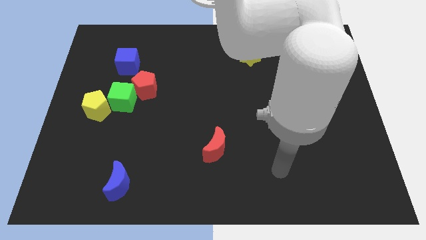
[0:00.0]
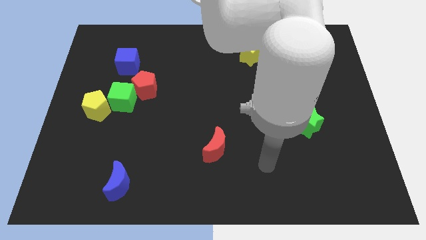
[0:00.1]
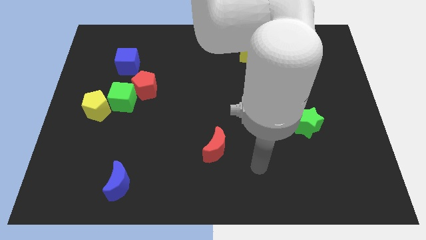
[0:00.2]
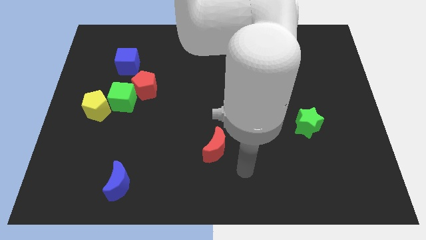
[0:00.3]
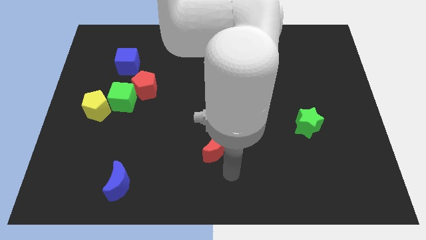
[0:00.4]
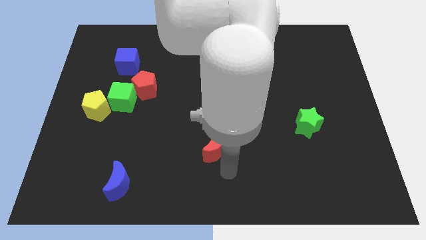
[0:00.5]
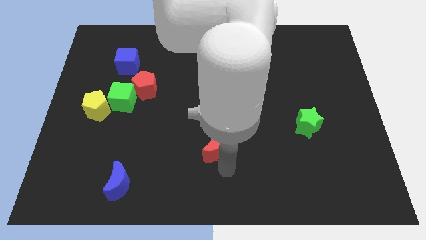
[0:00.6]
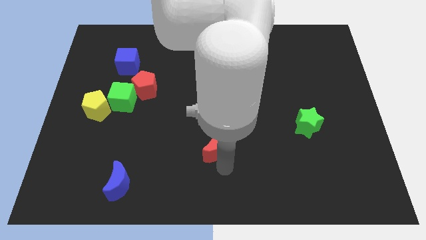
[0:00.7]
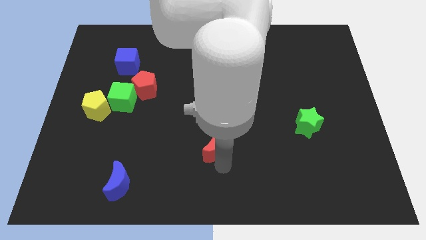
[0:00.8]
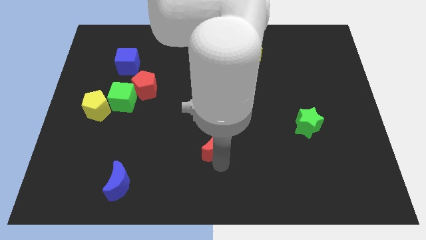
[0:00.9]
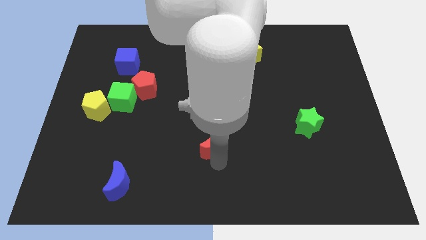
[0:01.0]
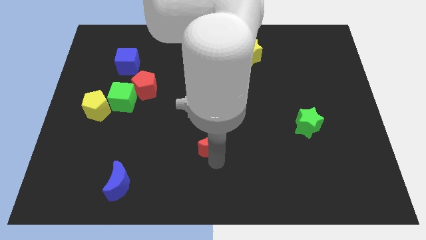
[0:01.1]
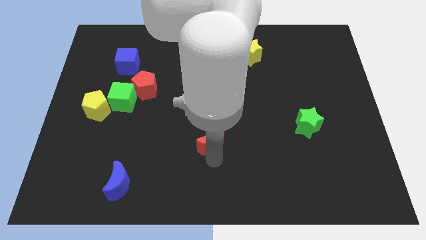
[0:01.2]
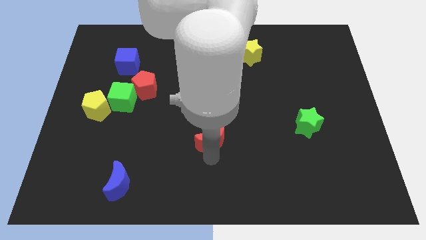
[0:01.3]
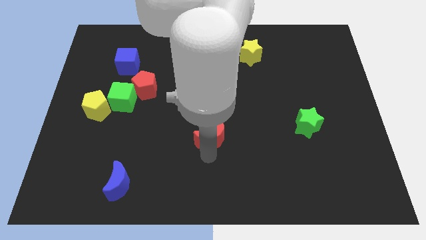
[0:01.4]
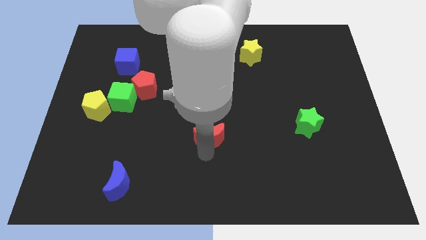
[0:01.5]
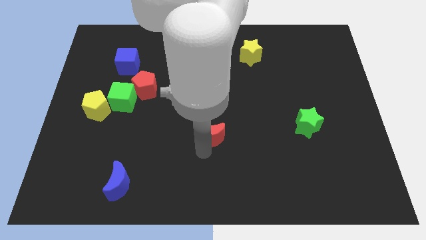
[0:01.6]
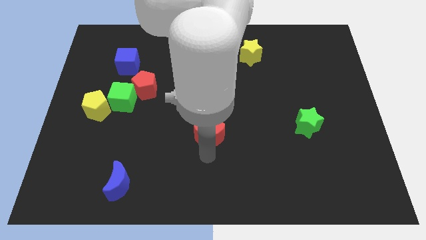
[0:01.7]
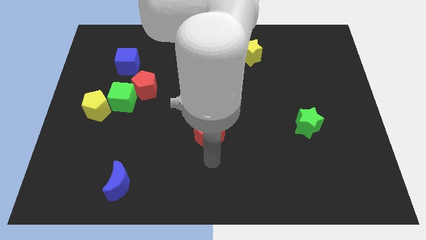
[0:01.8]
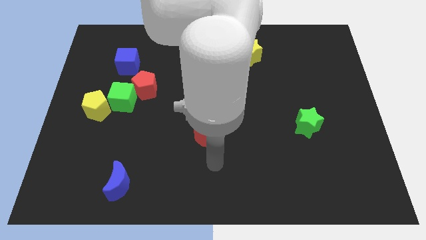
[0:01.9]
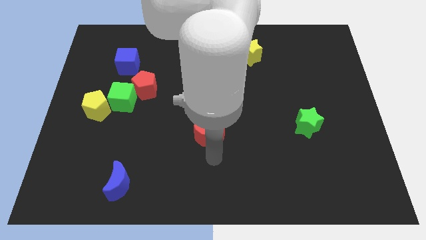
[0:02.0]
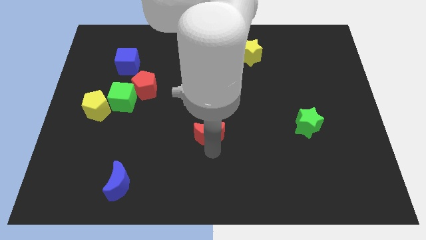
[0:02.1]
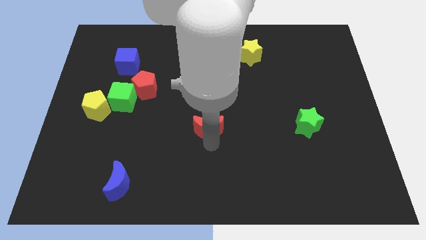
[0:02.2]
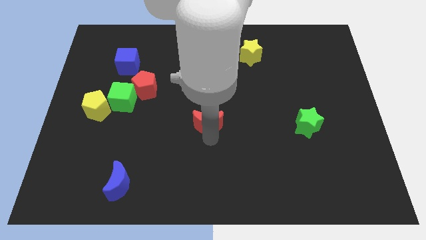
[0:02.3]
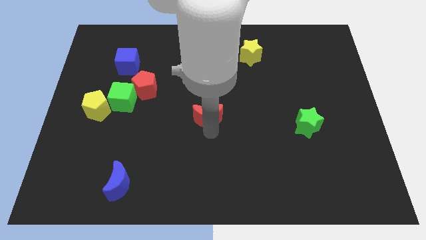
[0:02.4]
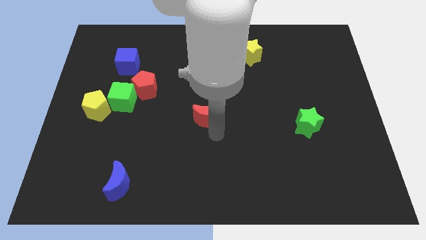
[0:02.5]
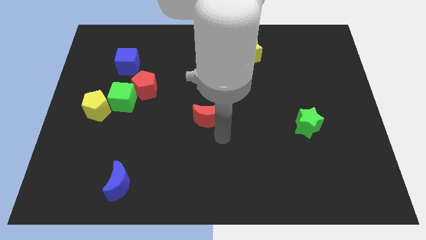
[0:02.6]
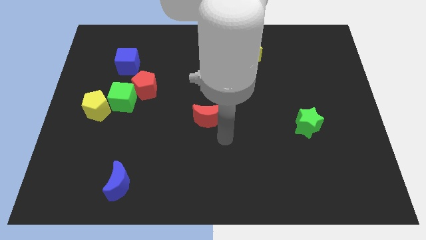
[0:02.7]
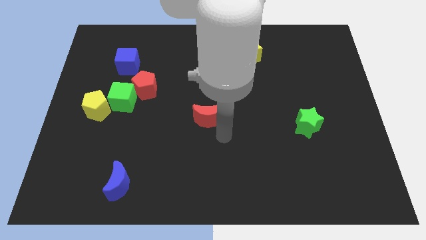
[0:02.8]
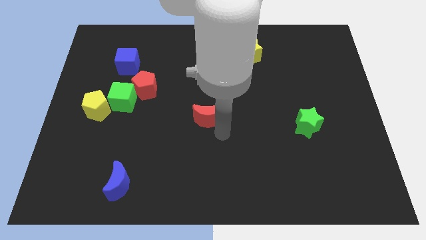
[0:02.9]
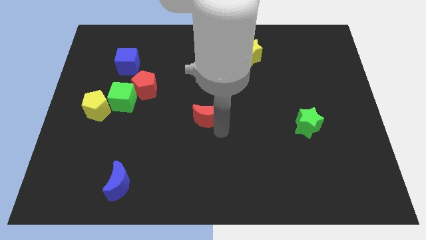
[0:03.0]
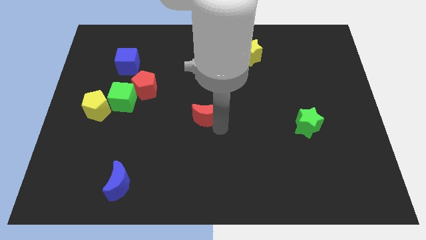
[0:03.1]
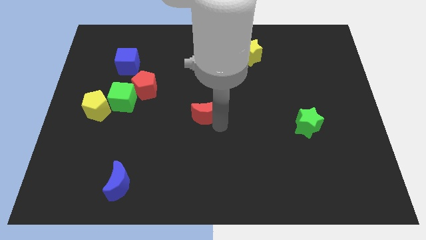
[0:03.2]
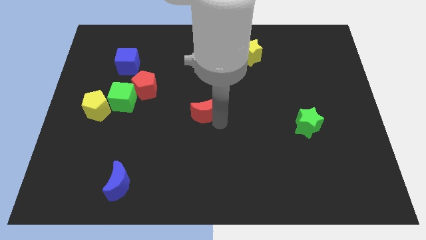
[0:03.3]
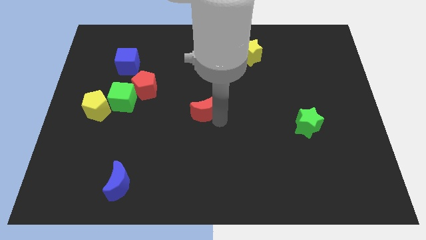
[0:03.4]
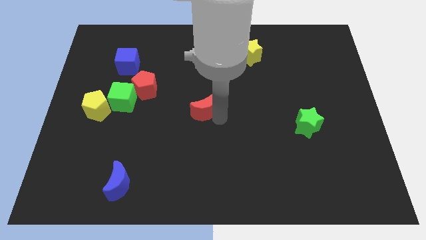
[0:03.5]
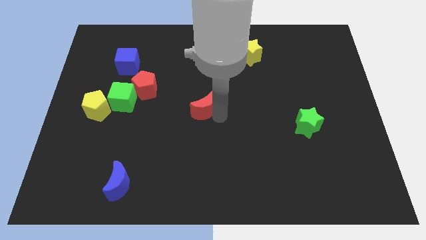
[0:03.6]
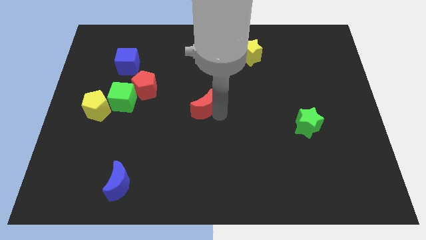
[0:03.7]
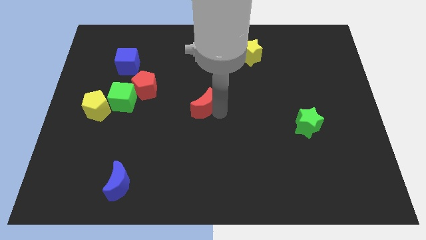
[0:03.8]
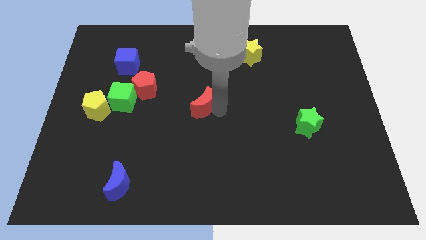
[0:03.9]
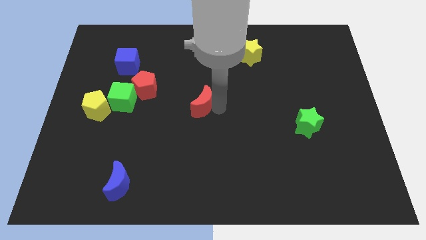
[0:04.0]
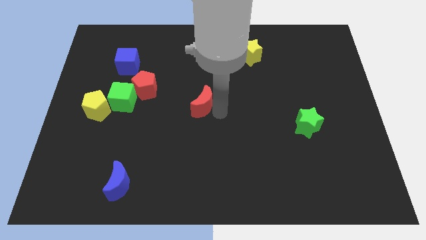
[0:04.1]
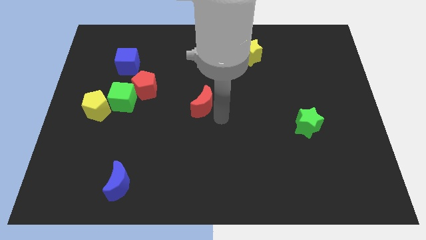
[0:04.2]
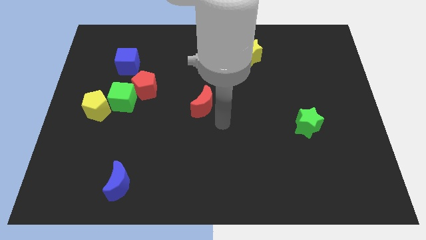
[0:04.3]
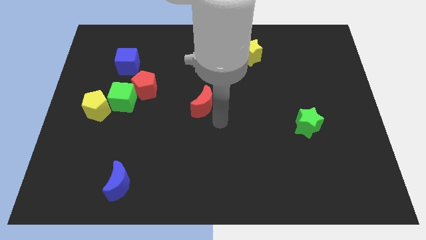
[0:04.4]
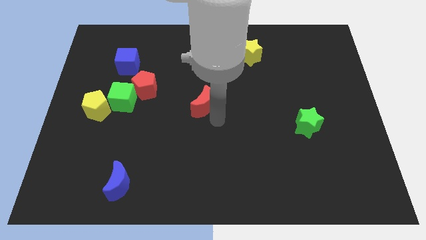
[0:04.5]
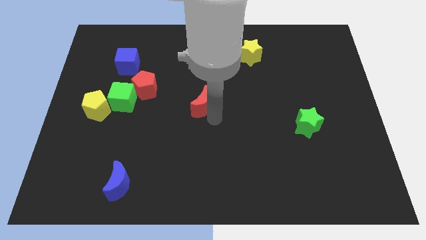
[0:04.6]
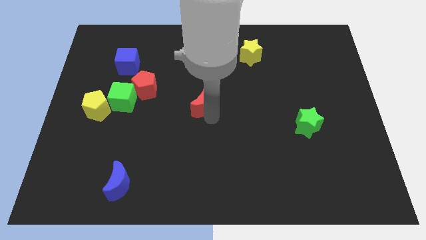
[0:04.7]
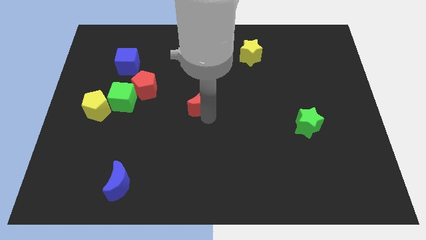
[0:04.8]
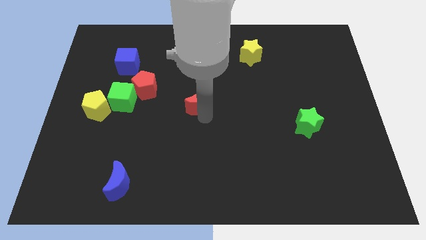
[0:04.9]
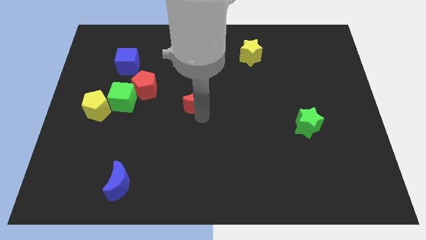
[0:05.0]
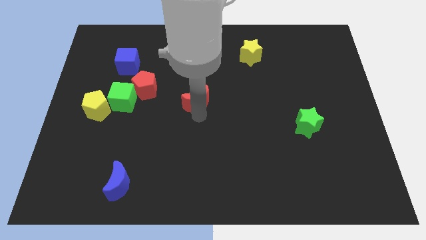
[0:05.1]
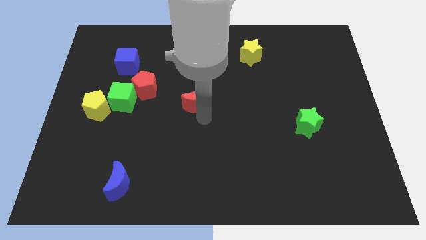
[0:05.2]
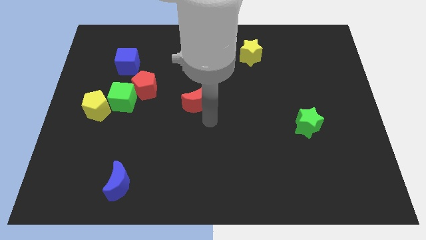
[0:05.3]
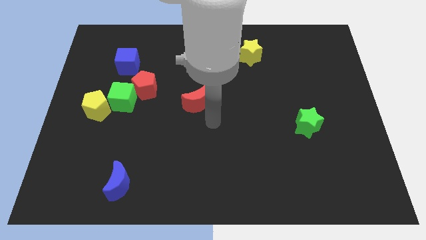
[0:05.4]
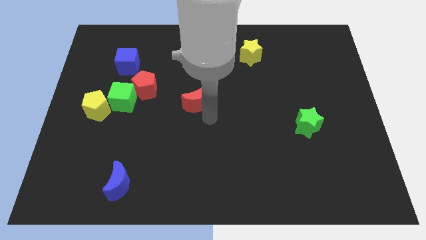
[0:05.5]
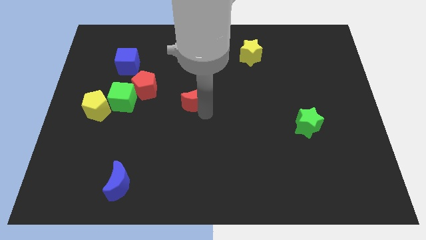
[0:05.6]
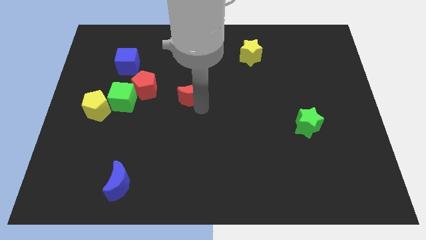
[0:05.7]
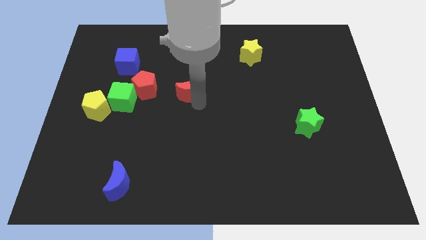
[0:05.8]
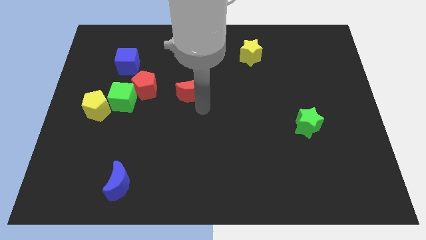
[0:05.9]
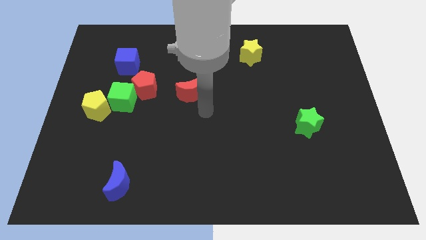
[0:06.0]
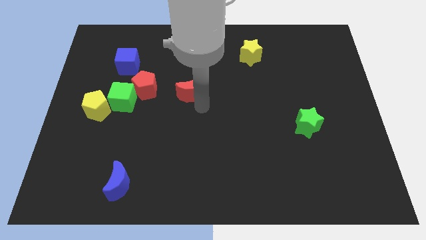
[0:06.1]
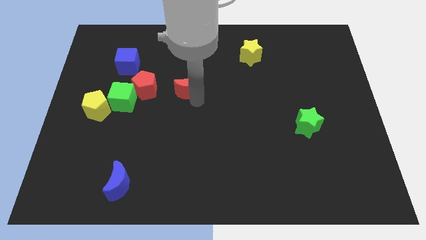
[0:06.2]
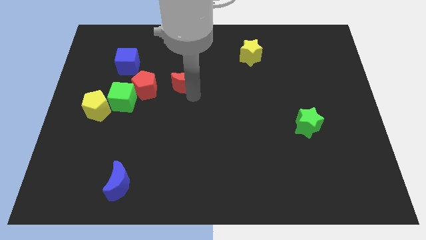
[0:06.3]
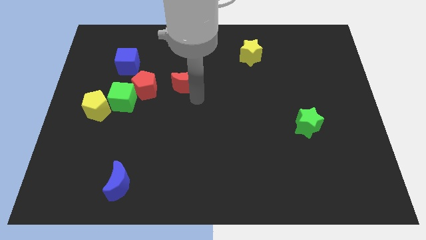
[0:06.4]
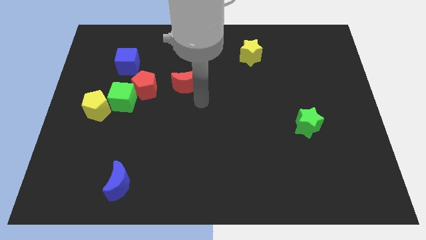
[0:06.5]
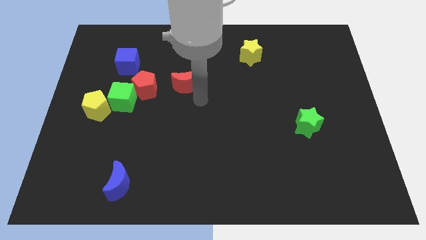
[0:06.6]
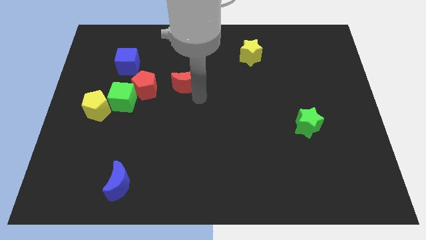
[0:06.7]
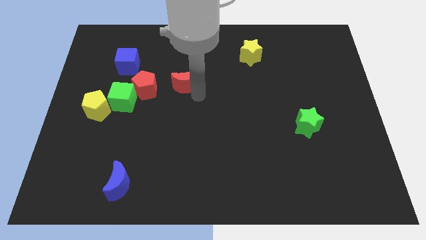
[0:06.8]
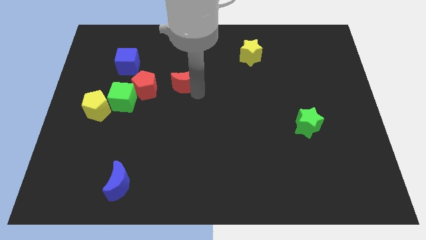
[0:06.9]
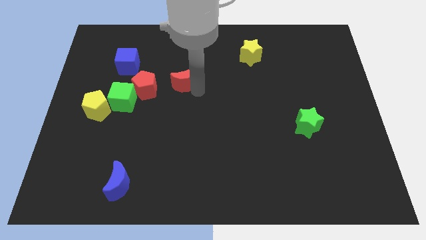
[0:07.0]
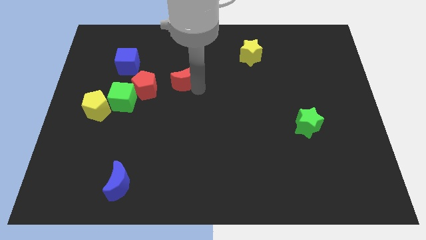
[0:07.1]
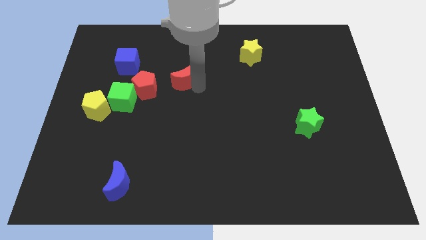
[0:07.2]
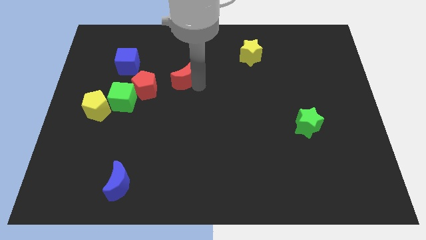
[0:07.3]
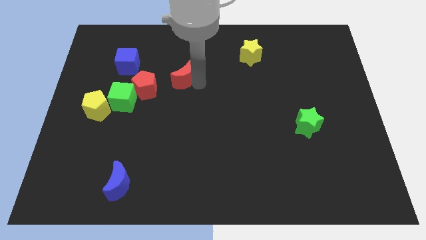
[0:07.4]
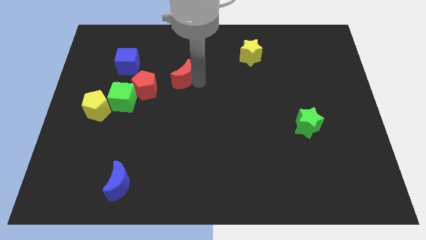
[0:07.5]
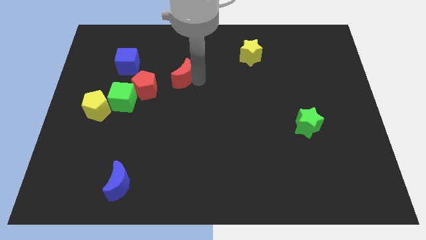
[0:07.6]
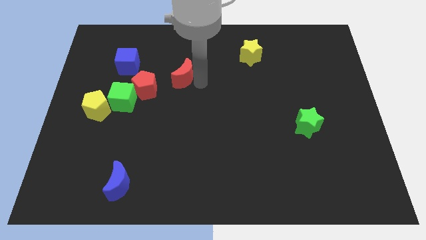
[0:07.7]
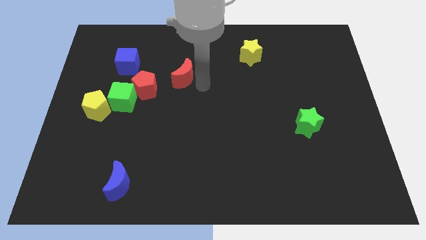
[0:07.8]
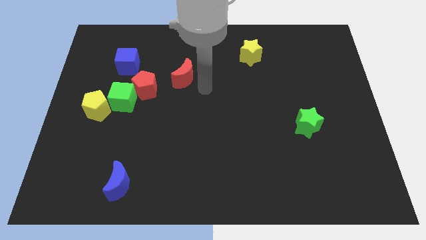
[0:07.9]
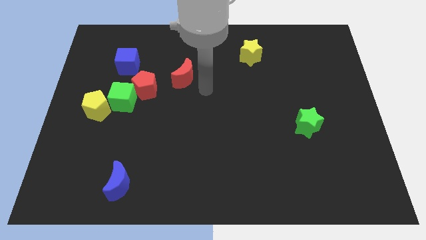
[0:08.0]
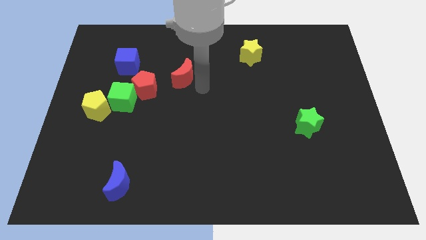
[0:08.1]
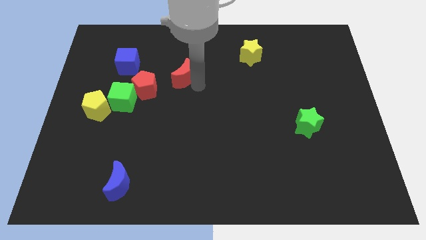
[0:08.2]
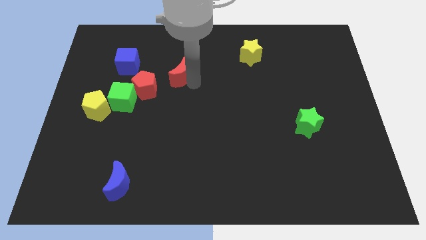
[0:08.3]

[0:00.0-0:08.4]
move the red moon just right of the blue cube

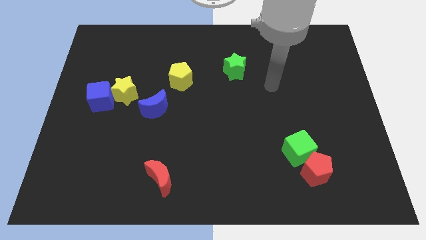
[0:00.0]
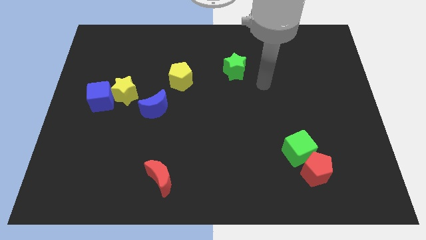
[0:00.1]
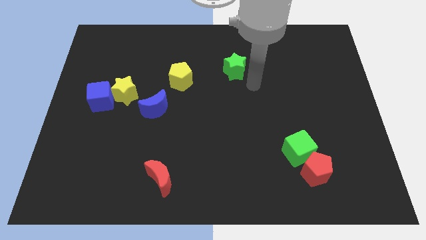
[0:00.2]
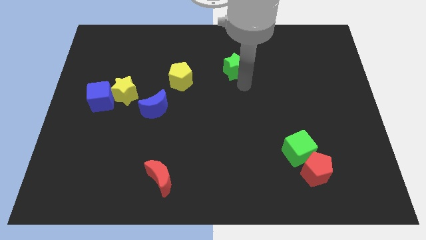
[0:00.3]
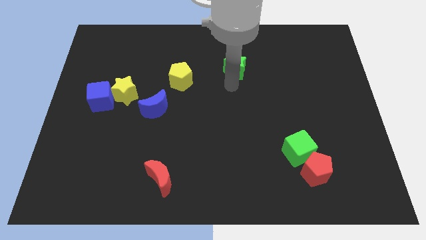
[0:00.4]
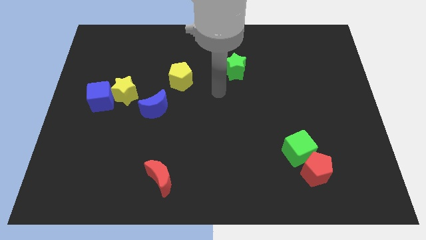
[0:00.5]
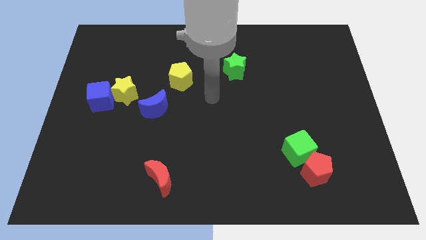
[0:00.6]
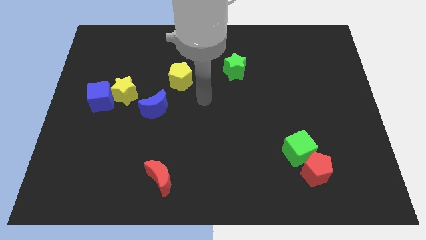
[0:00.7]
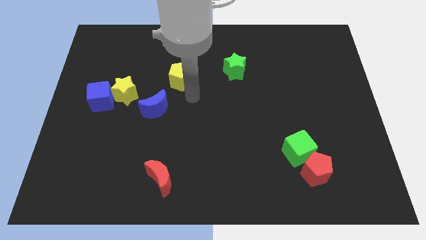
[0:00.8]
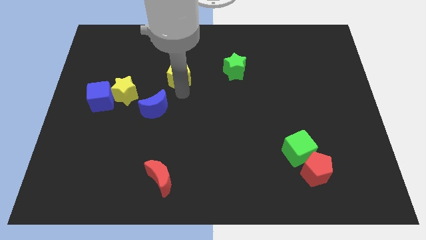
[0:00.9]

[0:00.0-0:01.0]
push the blue moon to the bottom of the yellow pentagon
